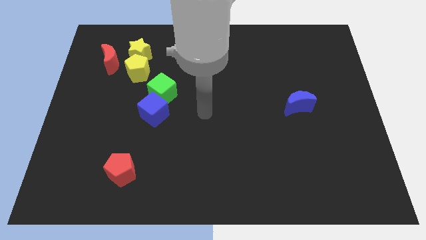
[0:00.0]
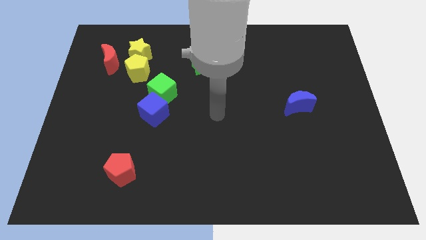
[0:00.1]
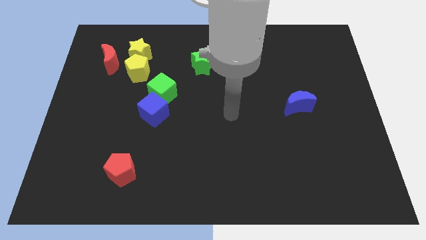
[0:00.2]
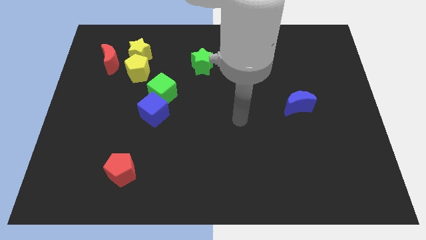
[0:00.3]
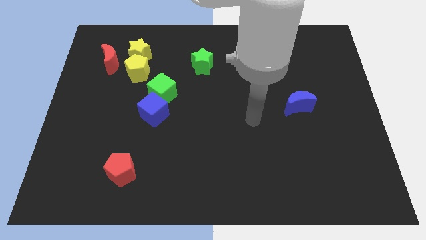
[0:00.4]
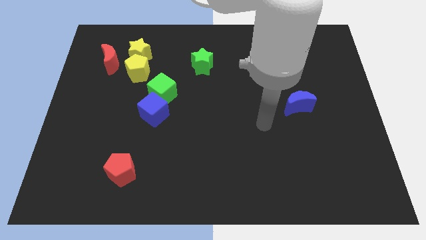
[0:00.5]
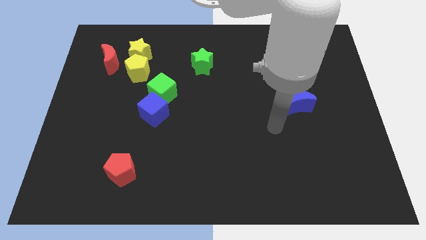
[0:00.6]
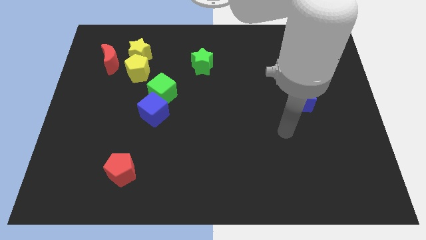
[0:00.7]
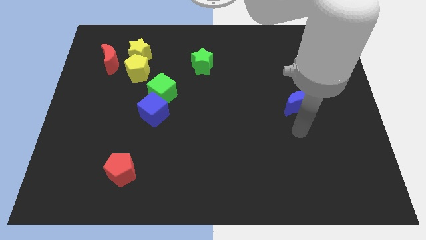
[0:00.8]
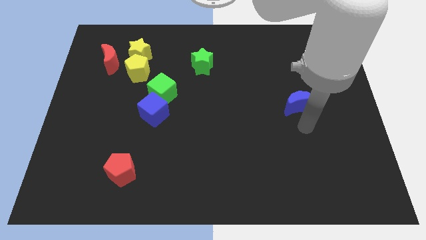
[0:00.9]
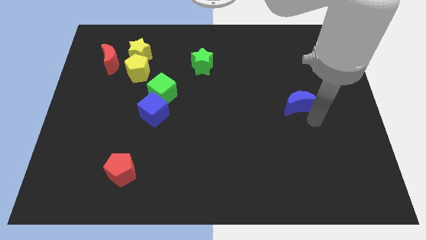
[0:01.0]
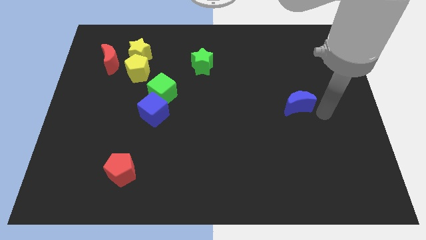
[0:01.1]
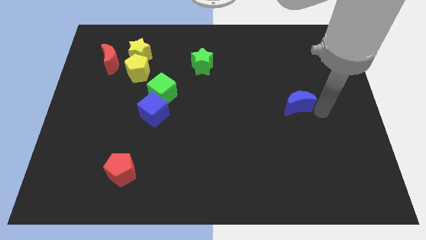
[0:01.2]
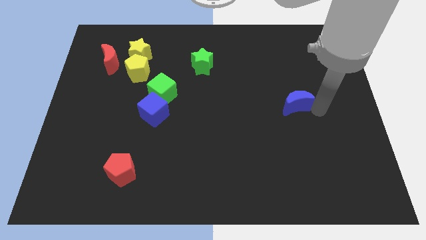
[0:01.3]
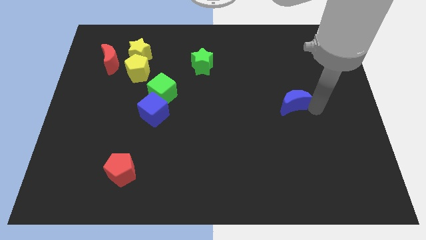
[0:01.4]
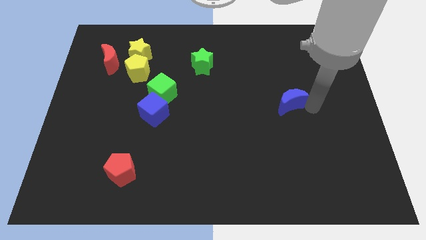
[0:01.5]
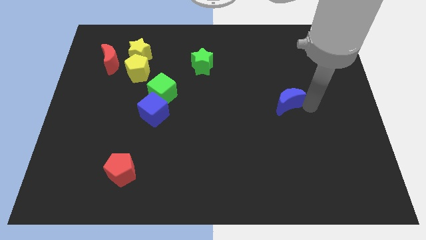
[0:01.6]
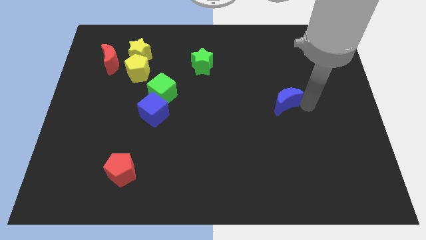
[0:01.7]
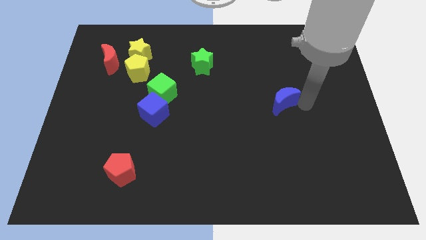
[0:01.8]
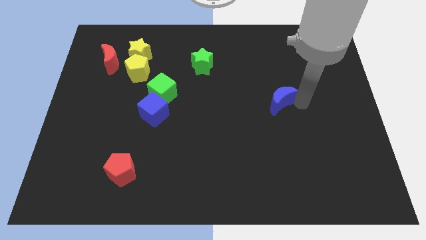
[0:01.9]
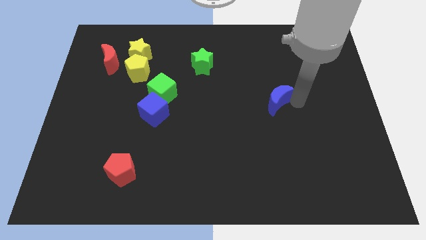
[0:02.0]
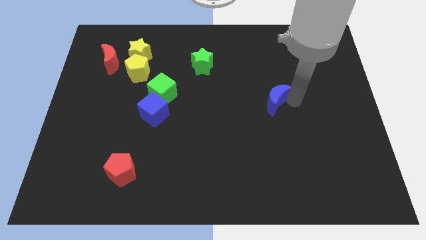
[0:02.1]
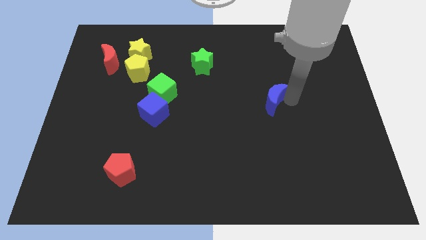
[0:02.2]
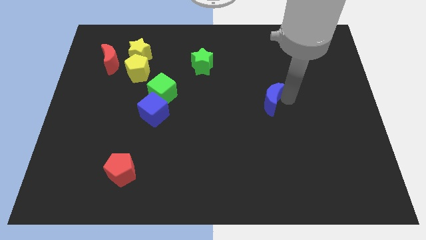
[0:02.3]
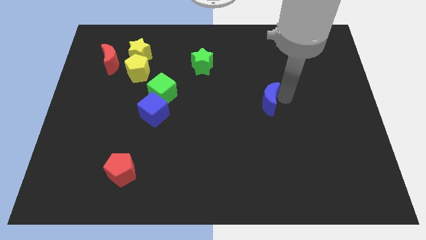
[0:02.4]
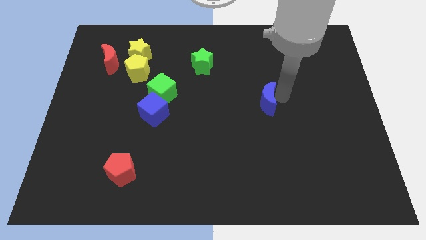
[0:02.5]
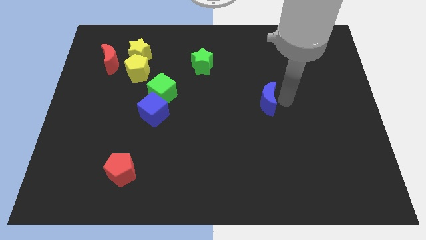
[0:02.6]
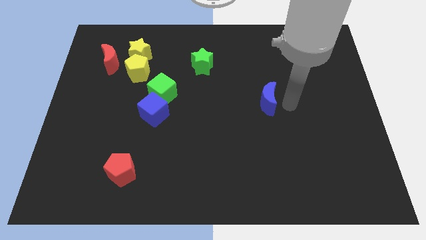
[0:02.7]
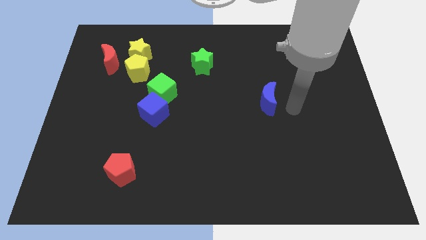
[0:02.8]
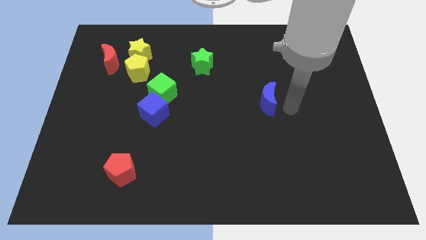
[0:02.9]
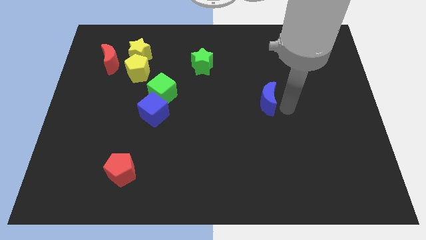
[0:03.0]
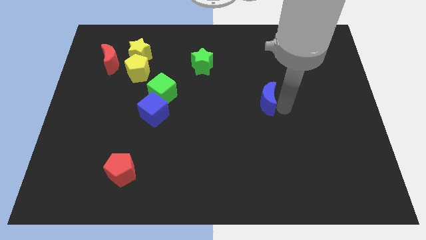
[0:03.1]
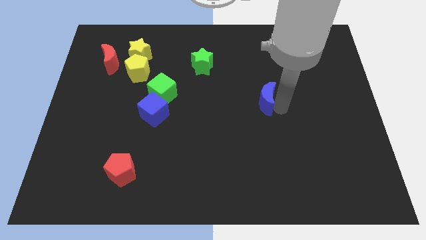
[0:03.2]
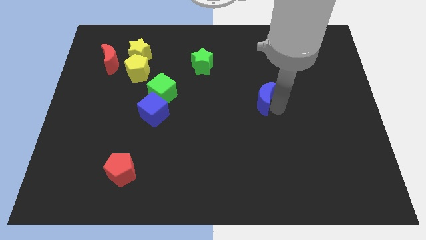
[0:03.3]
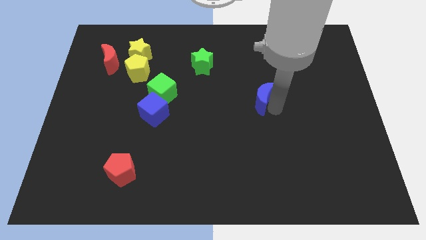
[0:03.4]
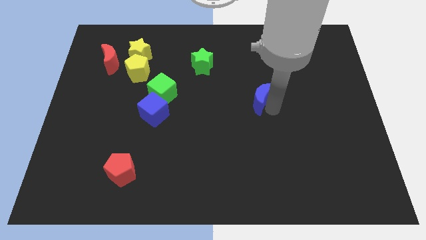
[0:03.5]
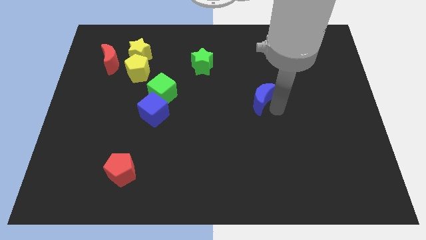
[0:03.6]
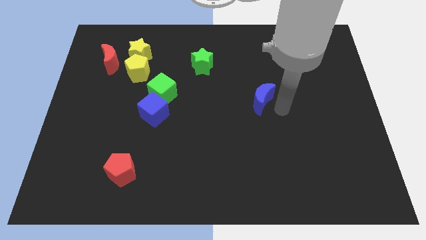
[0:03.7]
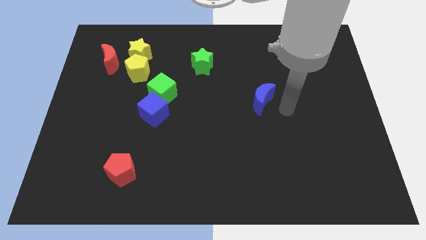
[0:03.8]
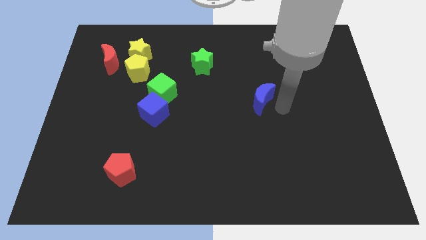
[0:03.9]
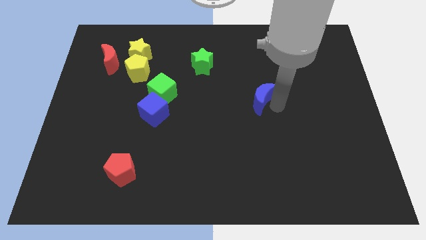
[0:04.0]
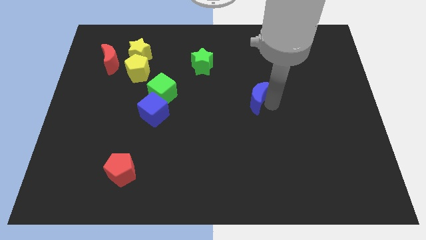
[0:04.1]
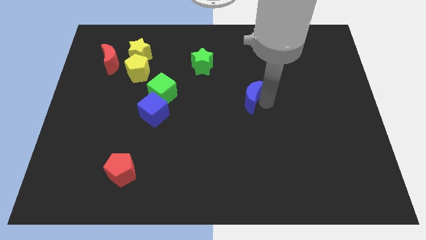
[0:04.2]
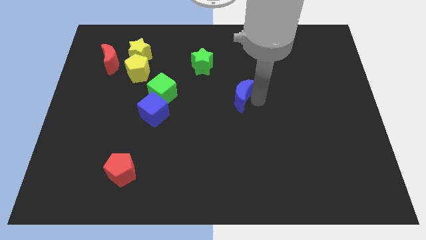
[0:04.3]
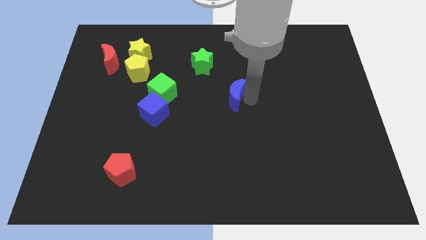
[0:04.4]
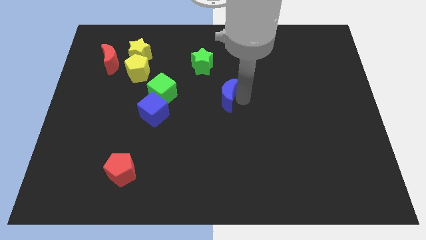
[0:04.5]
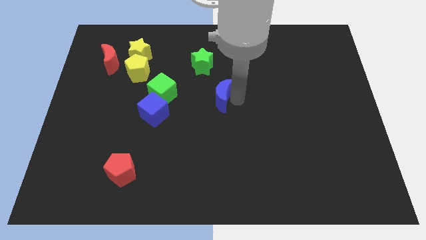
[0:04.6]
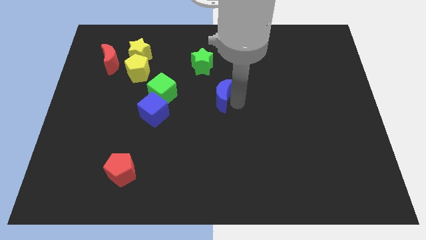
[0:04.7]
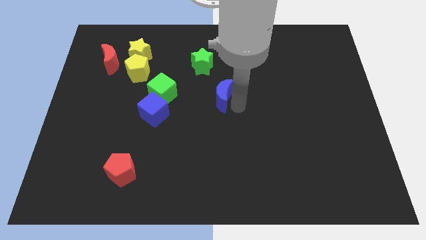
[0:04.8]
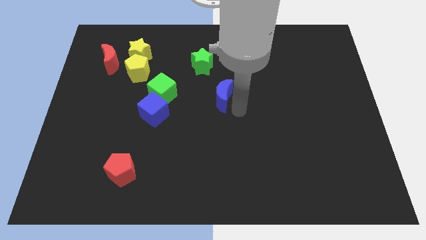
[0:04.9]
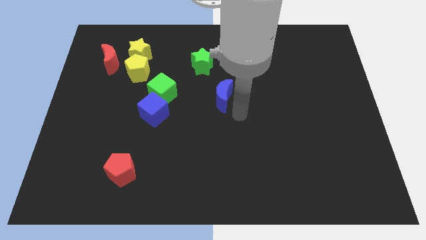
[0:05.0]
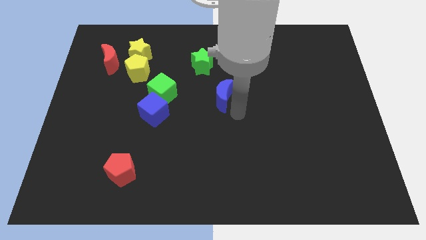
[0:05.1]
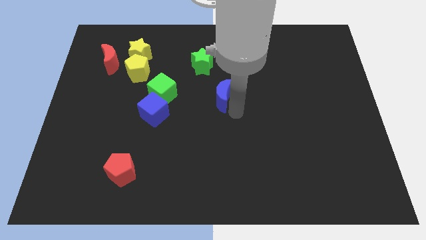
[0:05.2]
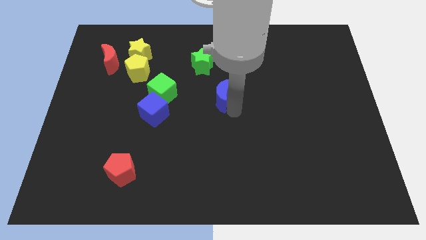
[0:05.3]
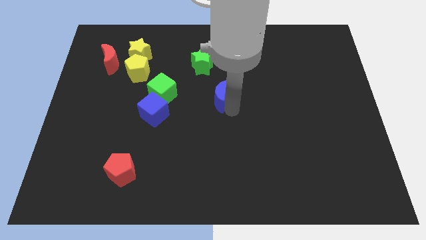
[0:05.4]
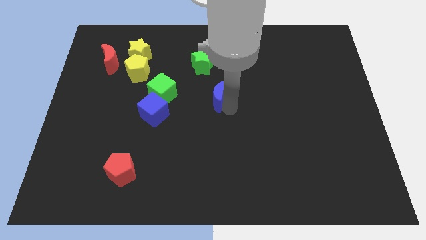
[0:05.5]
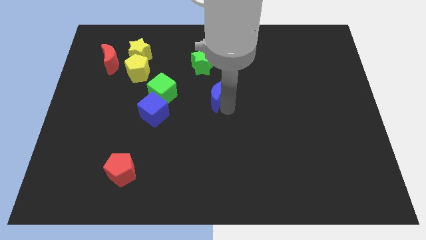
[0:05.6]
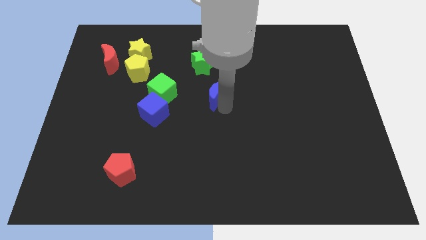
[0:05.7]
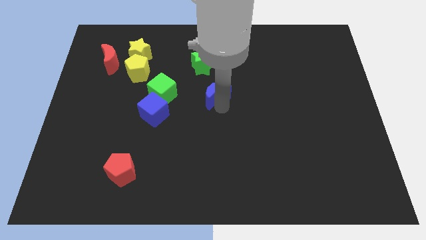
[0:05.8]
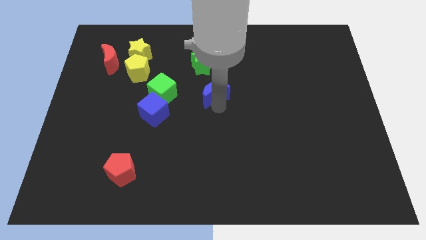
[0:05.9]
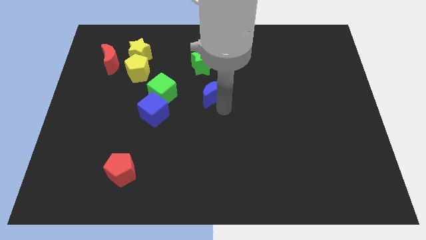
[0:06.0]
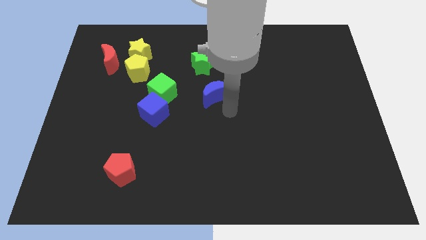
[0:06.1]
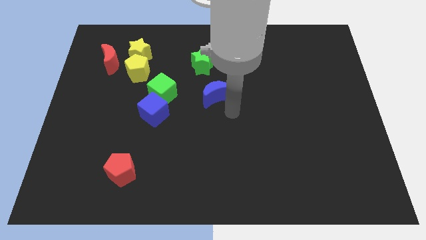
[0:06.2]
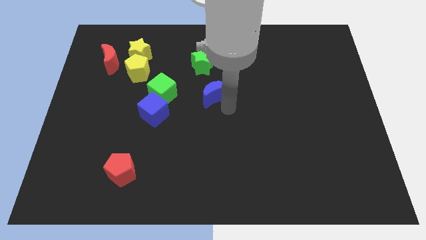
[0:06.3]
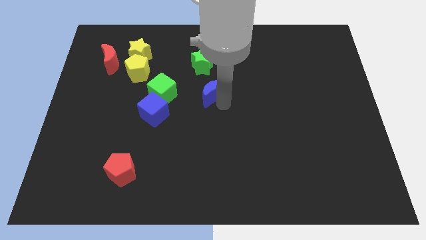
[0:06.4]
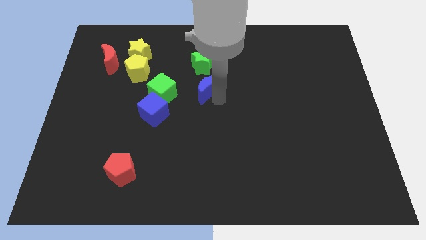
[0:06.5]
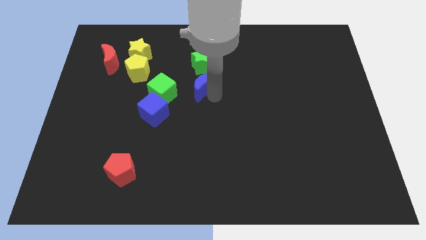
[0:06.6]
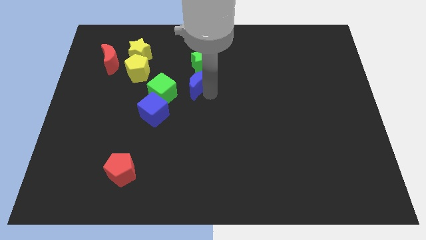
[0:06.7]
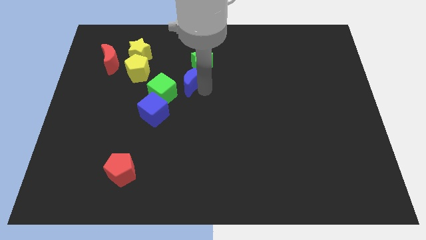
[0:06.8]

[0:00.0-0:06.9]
move the blue moon right of the yellow pentagon

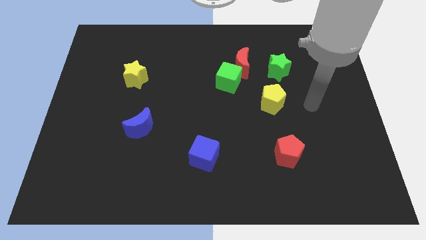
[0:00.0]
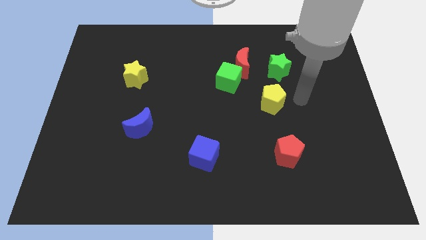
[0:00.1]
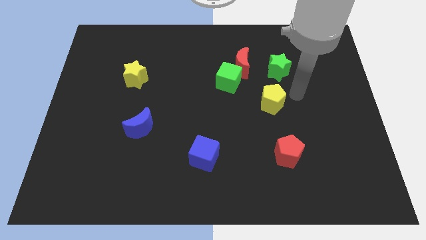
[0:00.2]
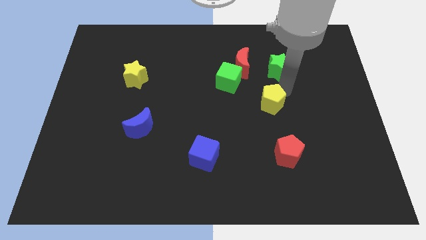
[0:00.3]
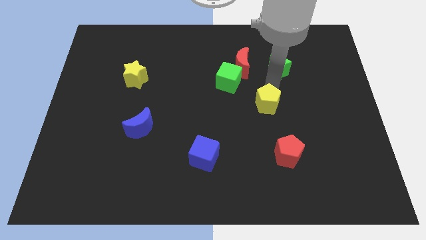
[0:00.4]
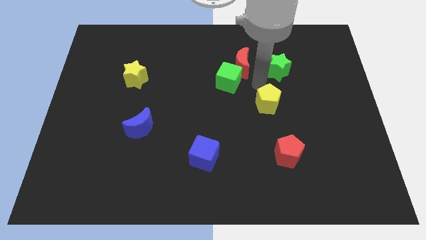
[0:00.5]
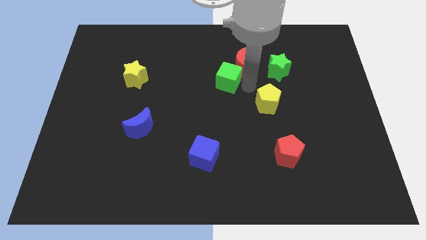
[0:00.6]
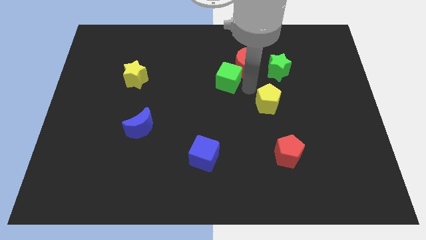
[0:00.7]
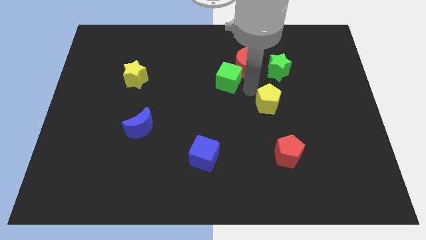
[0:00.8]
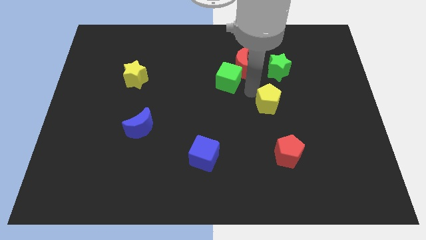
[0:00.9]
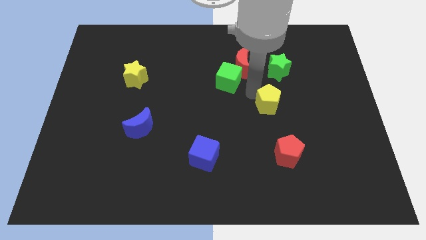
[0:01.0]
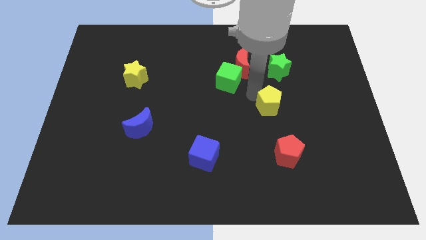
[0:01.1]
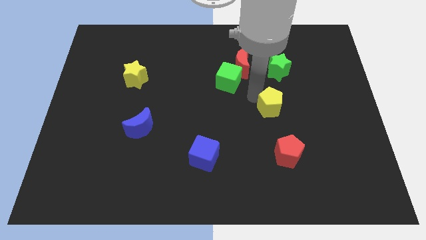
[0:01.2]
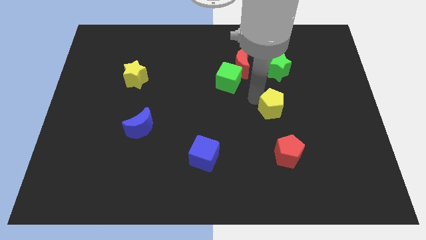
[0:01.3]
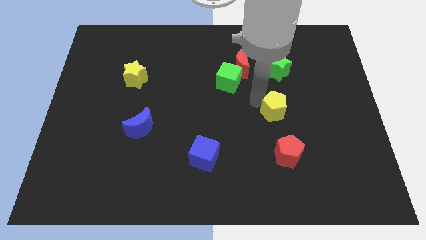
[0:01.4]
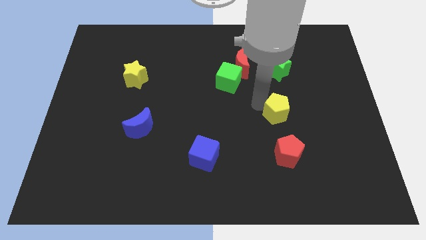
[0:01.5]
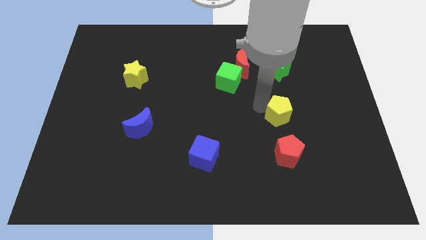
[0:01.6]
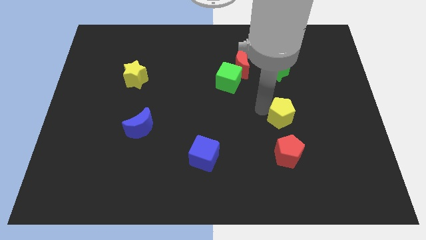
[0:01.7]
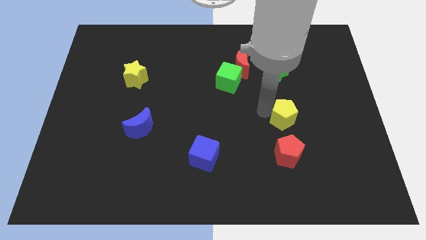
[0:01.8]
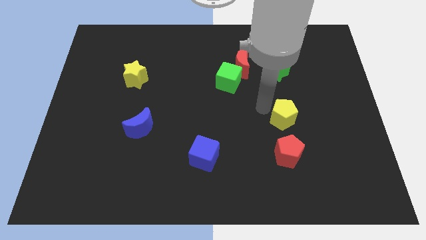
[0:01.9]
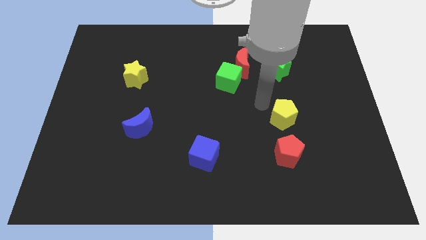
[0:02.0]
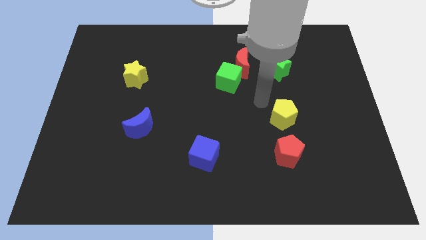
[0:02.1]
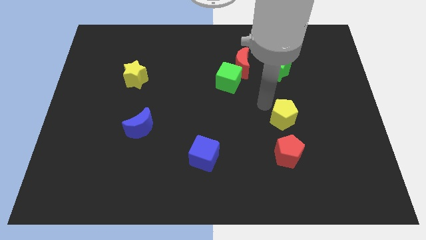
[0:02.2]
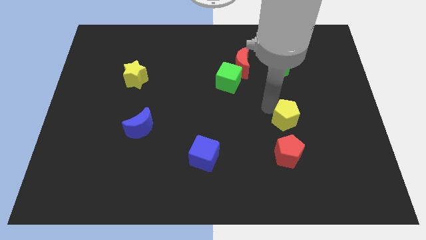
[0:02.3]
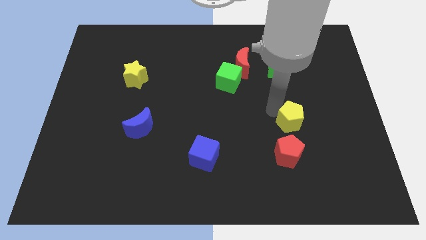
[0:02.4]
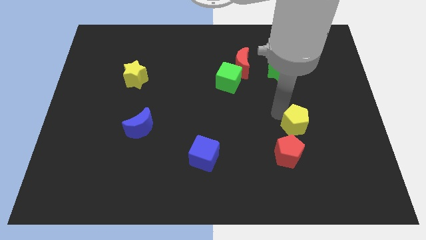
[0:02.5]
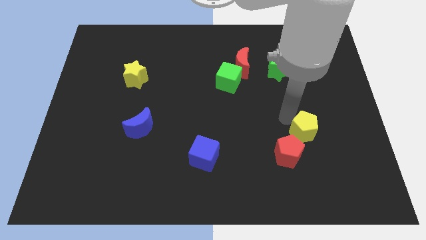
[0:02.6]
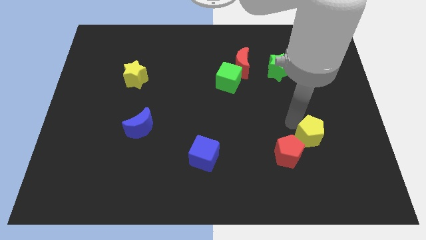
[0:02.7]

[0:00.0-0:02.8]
move the yellow pentagon right of the red pentagon
